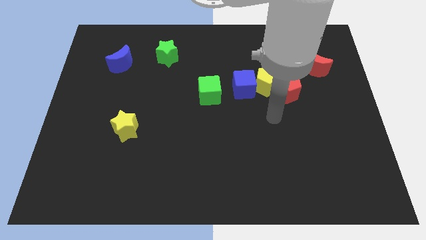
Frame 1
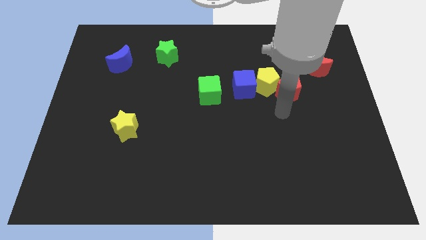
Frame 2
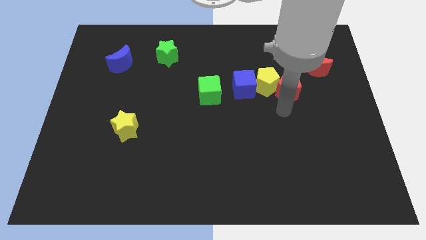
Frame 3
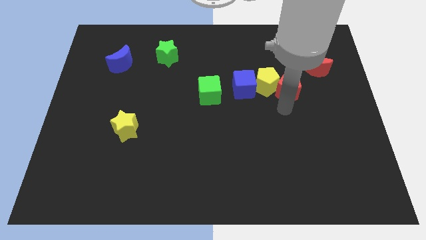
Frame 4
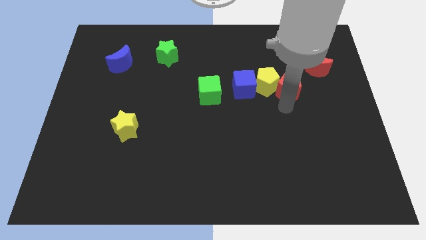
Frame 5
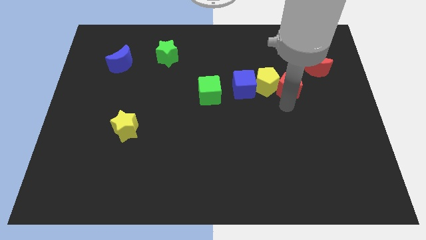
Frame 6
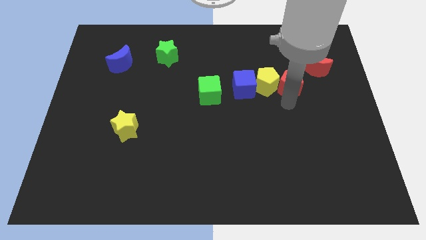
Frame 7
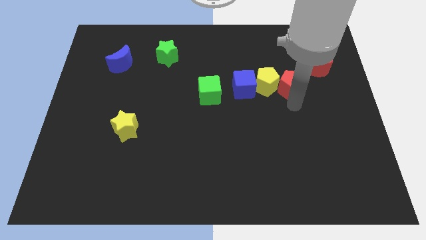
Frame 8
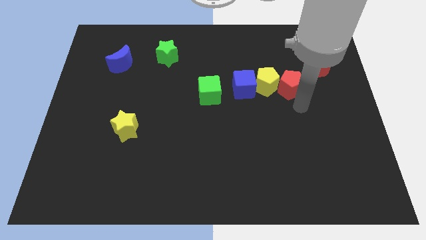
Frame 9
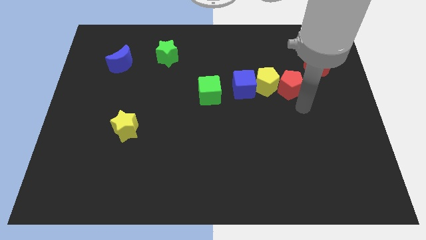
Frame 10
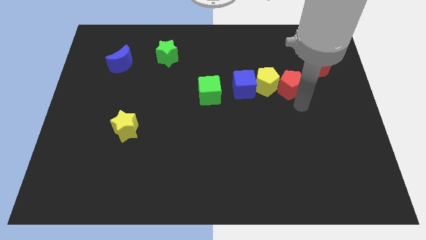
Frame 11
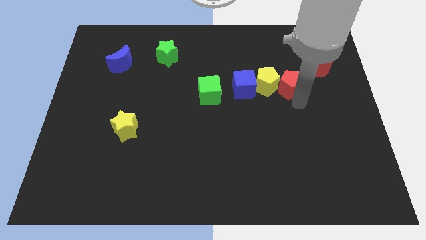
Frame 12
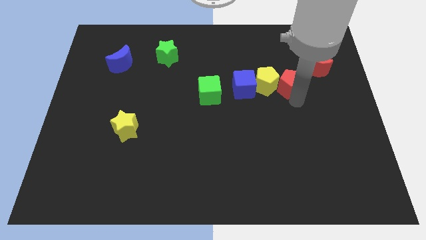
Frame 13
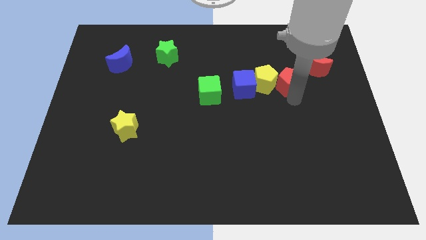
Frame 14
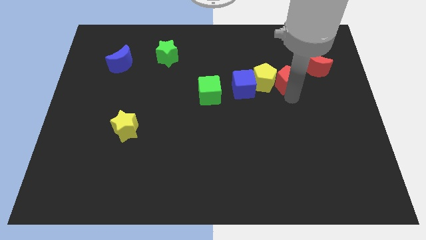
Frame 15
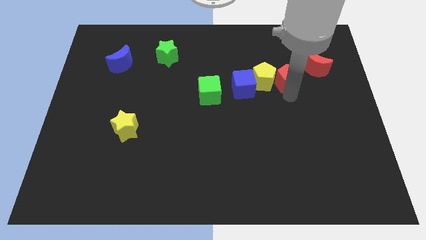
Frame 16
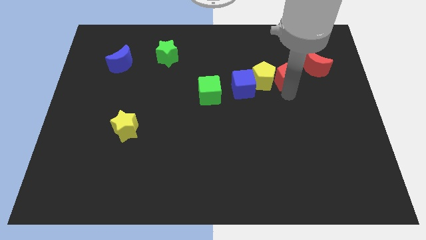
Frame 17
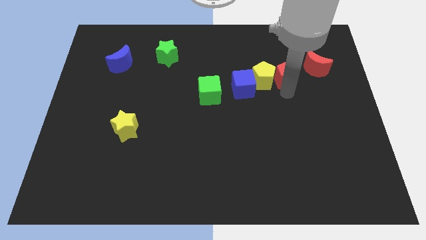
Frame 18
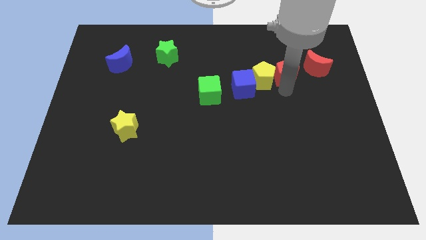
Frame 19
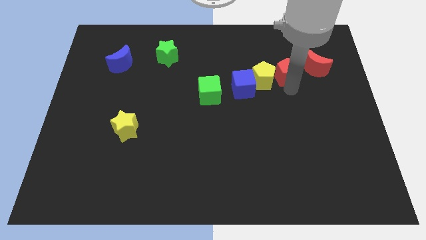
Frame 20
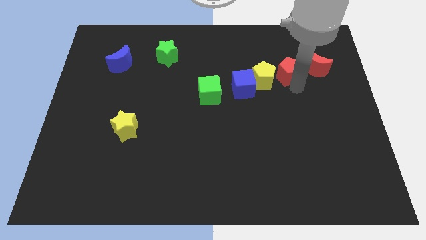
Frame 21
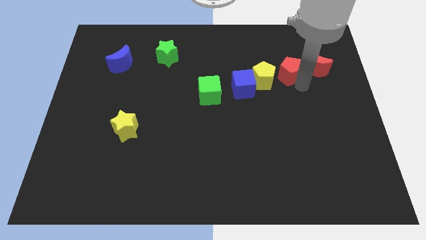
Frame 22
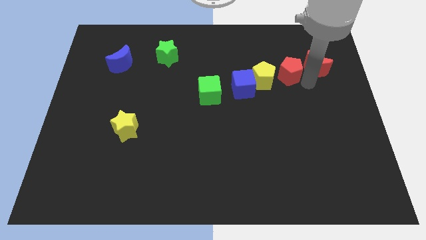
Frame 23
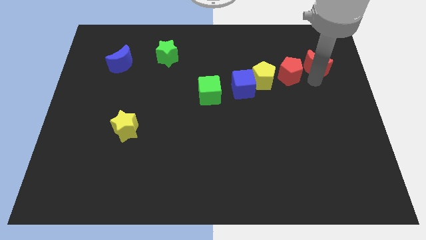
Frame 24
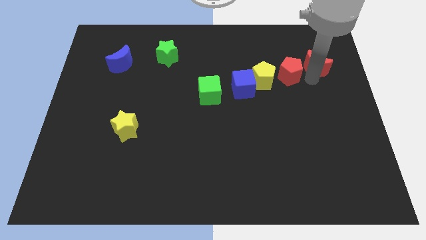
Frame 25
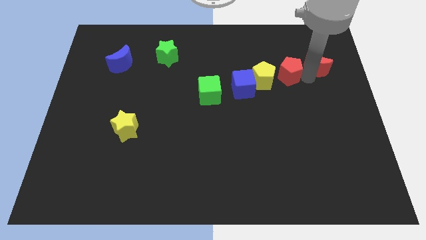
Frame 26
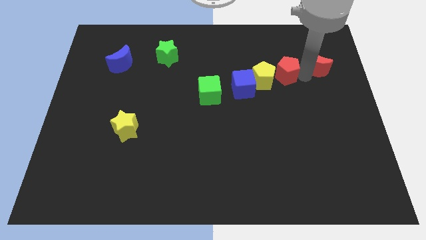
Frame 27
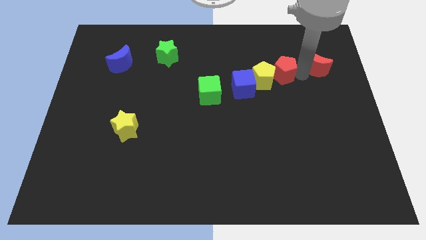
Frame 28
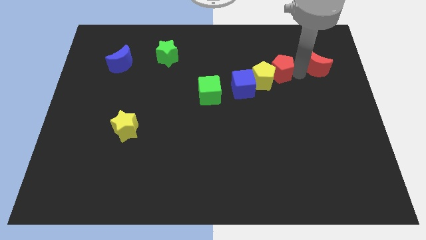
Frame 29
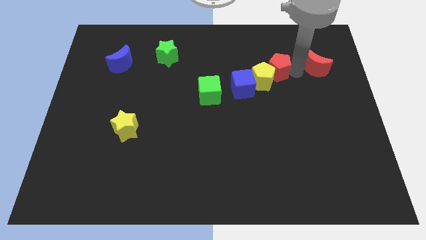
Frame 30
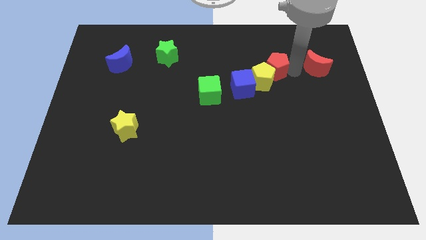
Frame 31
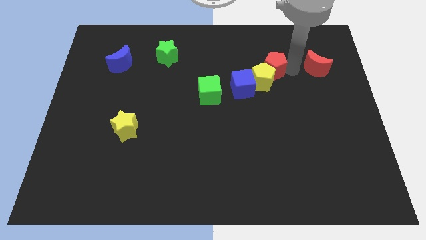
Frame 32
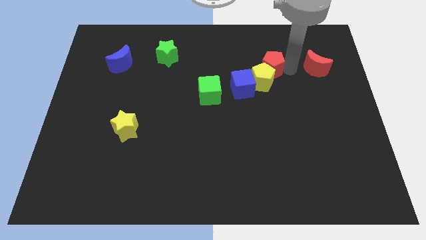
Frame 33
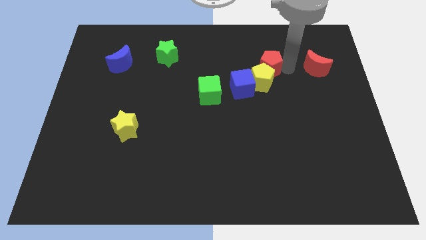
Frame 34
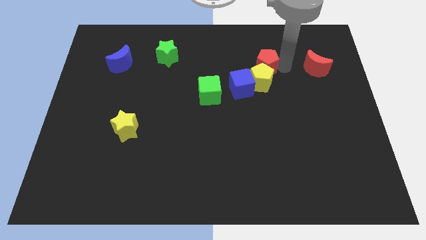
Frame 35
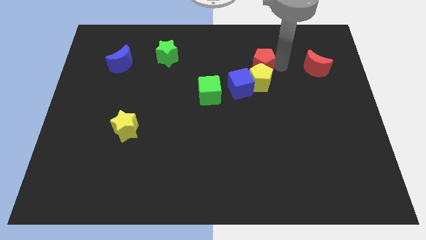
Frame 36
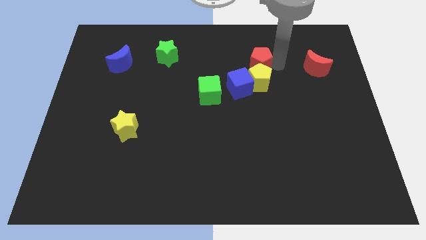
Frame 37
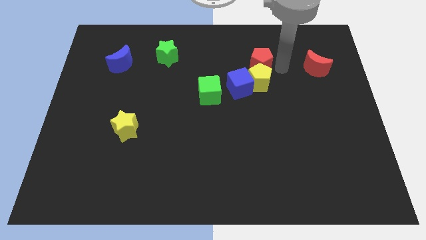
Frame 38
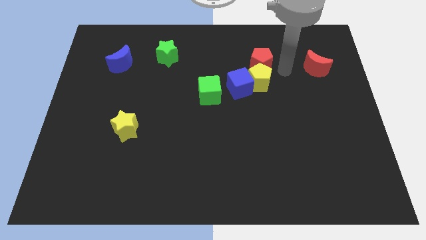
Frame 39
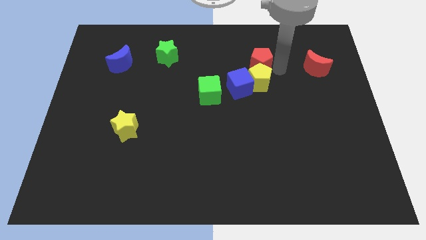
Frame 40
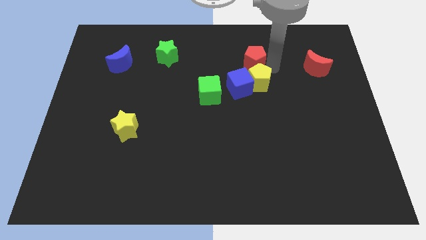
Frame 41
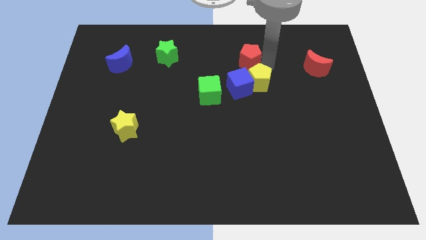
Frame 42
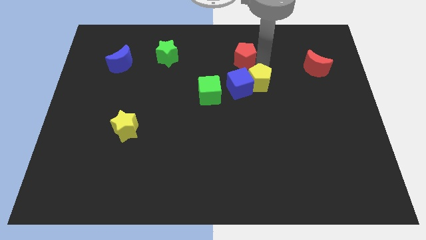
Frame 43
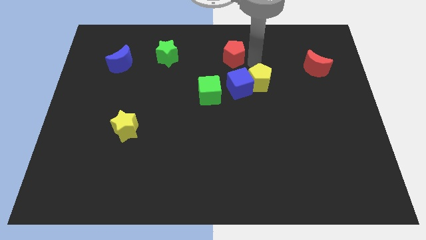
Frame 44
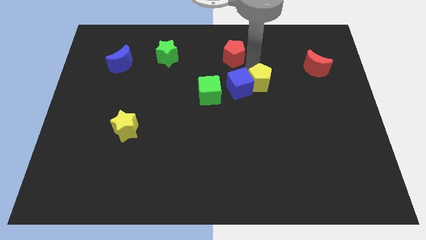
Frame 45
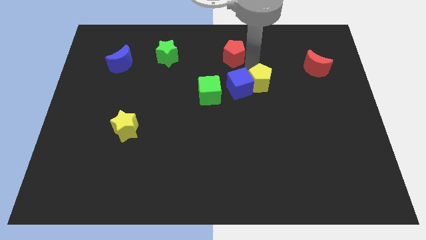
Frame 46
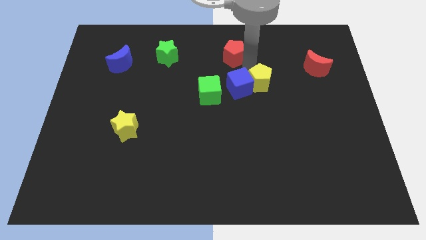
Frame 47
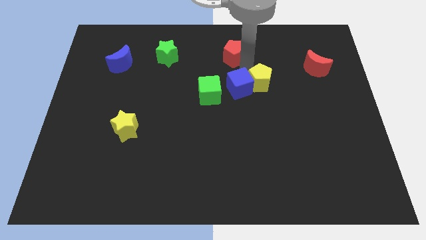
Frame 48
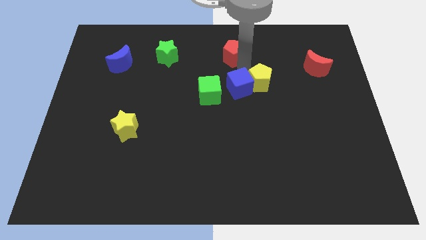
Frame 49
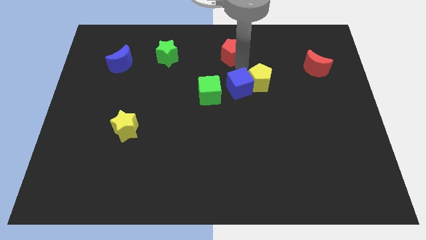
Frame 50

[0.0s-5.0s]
move the red pentagon to the top

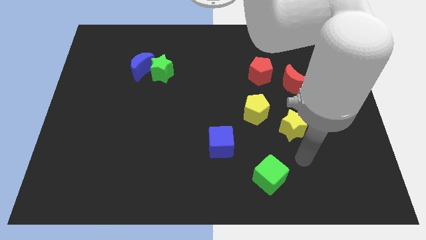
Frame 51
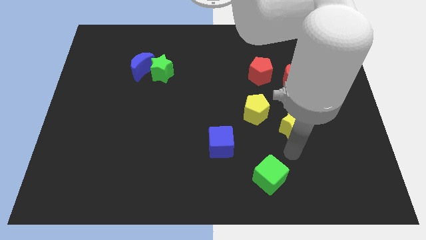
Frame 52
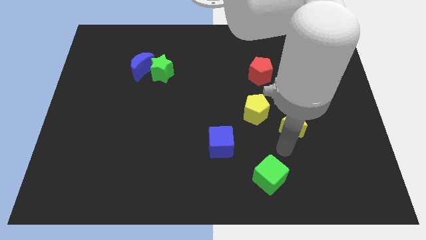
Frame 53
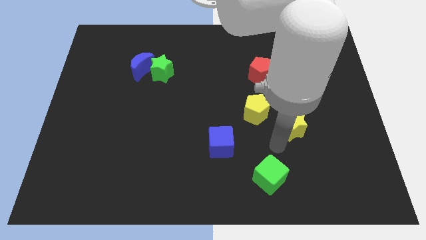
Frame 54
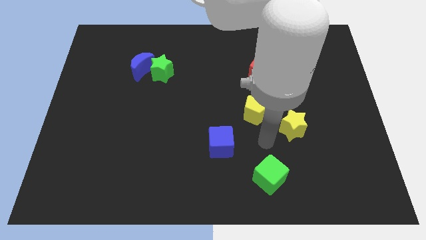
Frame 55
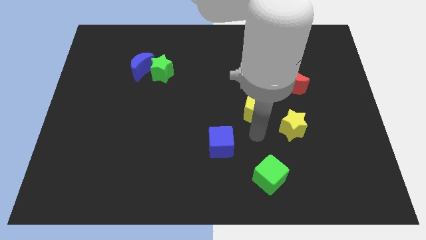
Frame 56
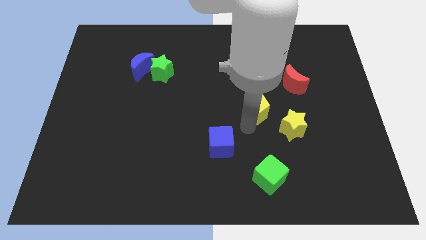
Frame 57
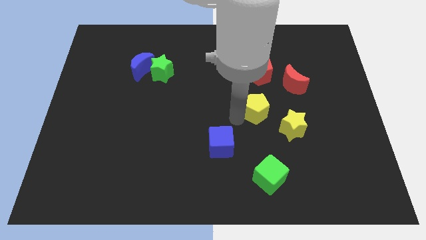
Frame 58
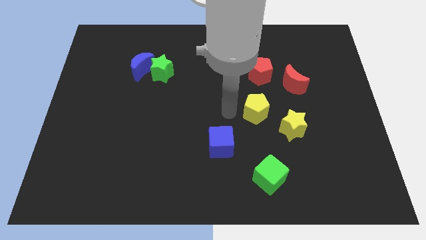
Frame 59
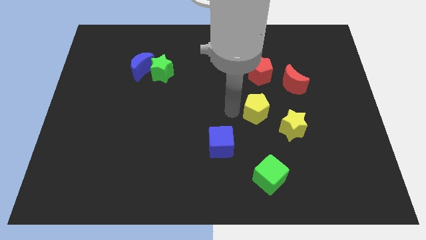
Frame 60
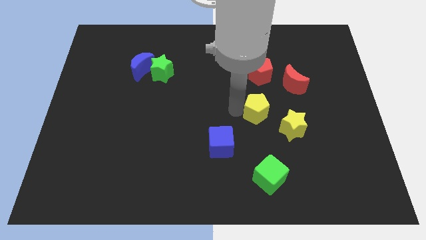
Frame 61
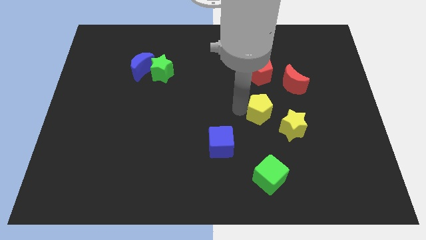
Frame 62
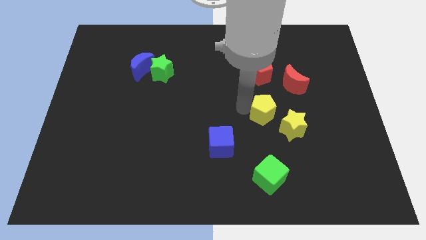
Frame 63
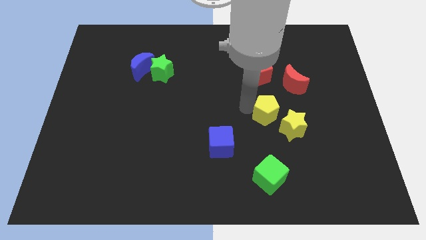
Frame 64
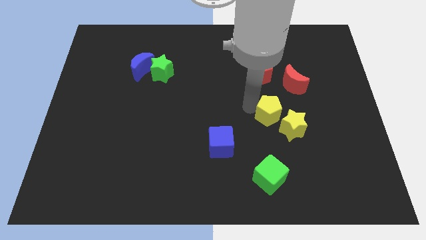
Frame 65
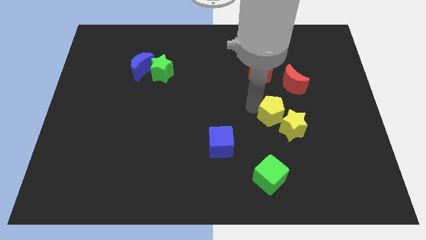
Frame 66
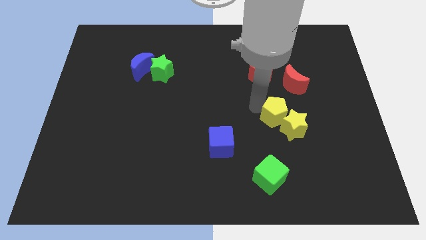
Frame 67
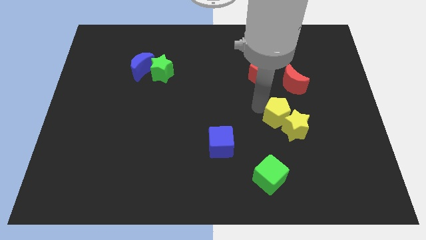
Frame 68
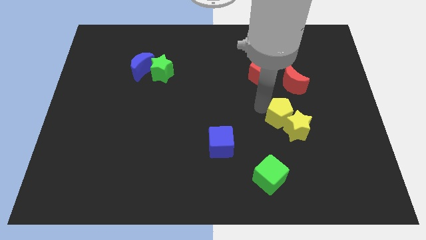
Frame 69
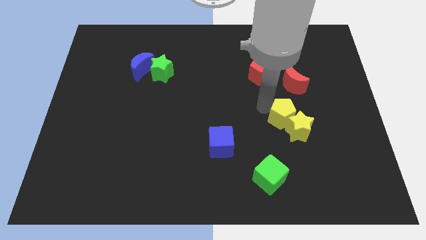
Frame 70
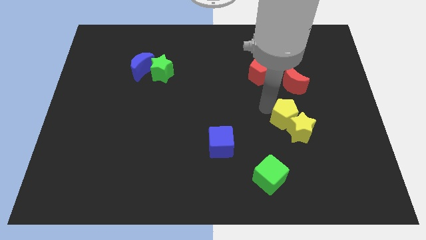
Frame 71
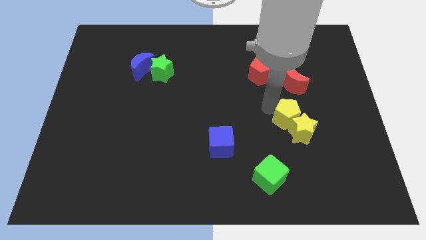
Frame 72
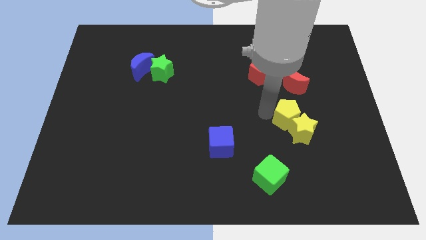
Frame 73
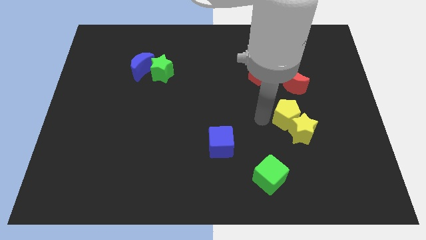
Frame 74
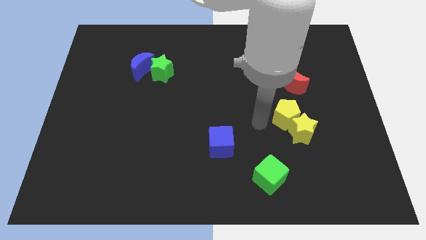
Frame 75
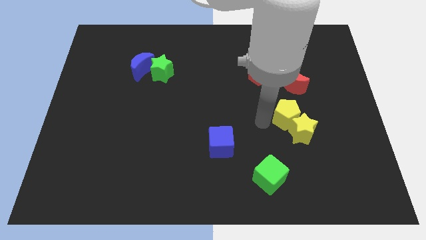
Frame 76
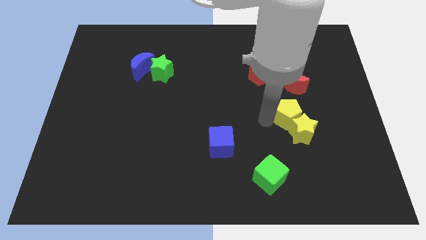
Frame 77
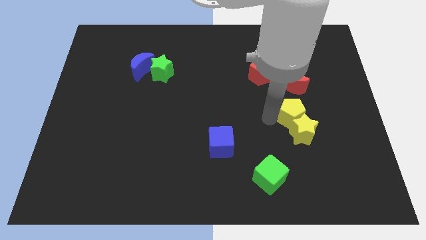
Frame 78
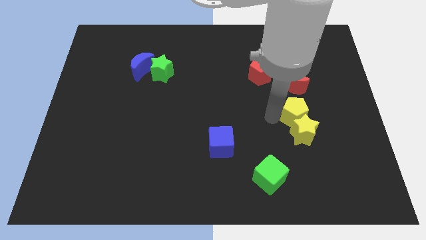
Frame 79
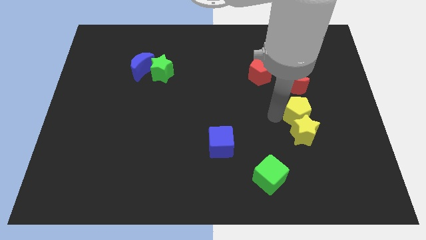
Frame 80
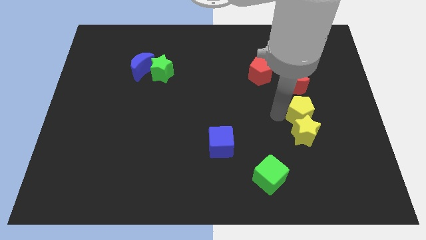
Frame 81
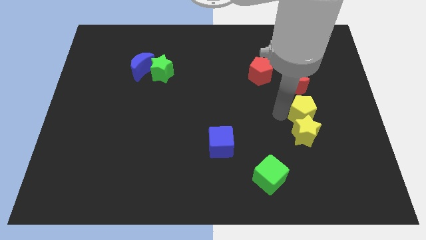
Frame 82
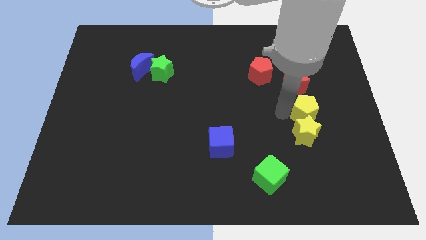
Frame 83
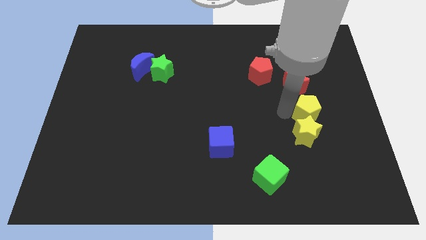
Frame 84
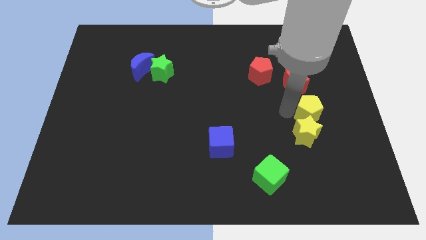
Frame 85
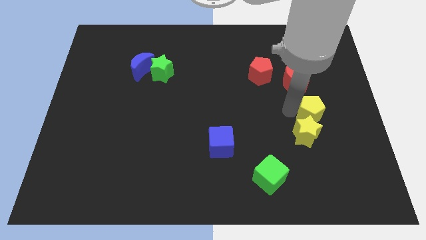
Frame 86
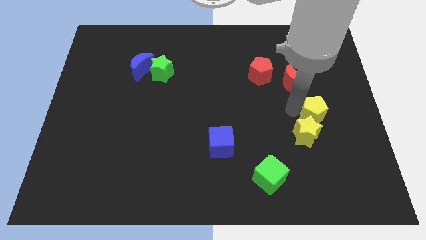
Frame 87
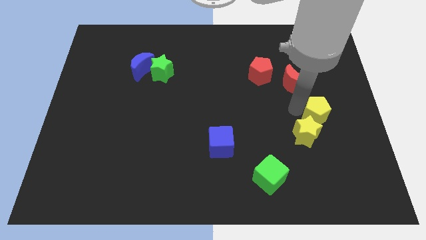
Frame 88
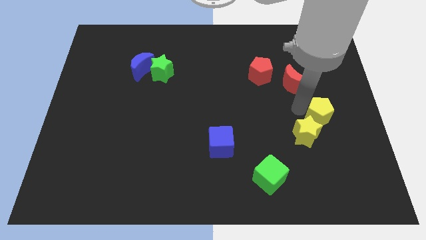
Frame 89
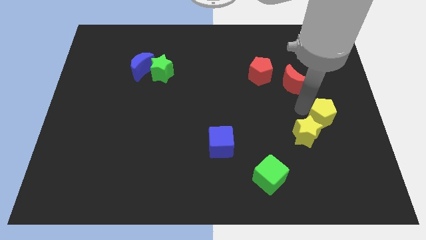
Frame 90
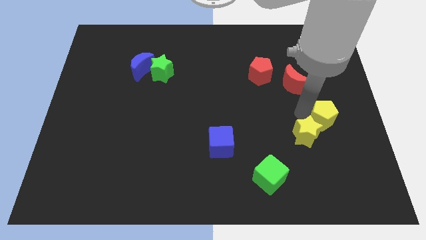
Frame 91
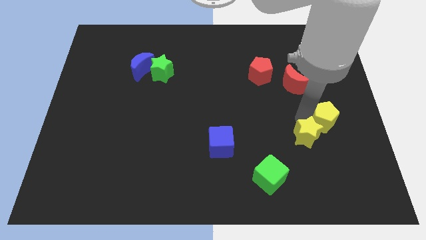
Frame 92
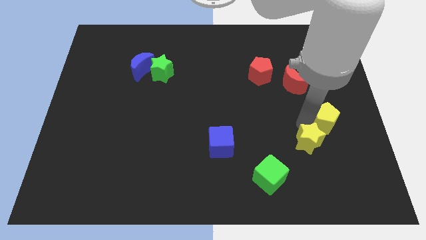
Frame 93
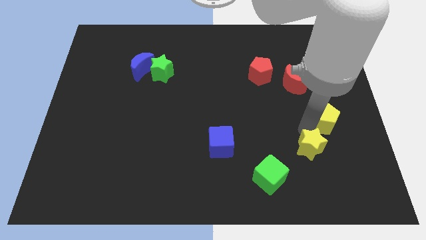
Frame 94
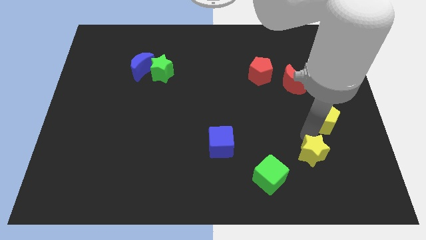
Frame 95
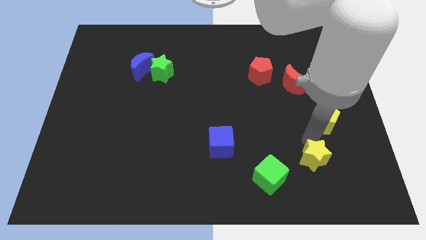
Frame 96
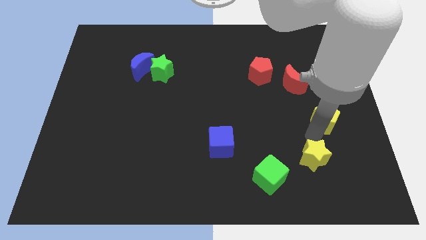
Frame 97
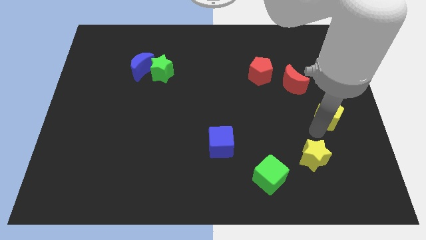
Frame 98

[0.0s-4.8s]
put the yellow pentagon to the center right
